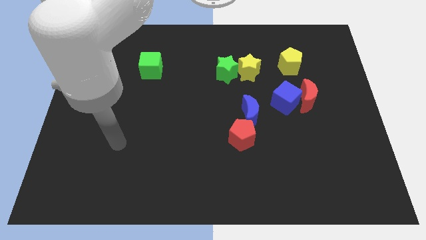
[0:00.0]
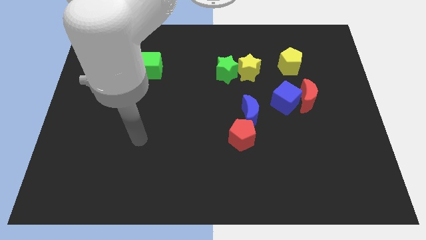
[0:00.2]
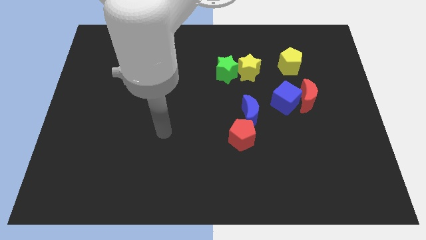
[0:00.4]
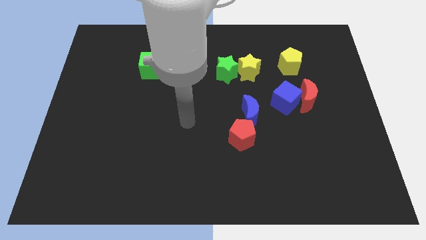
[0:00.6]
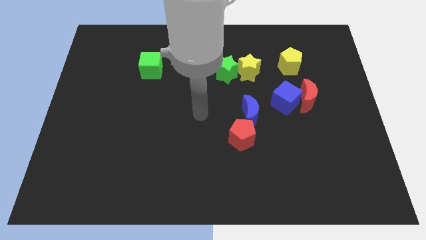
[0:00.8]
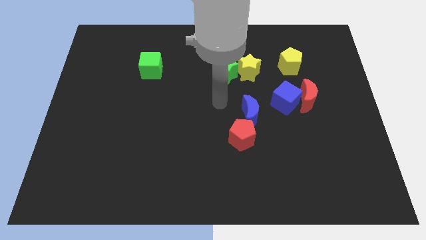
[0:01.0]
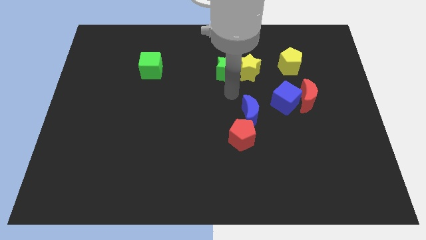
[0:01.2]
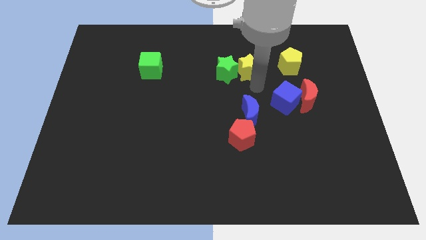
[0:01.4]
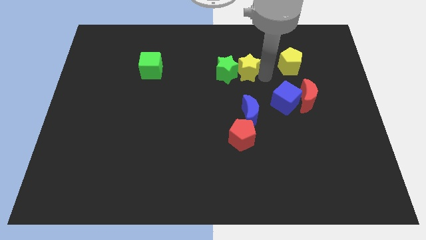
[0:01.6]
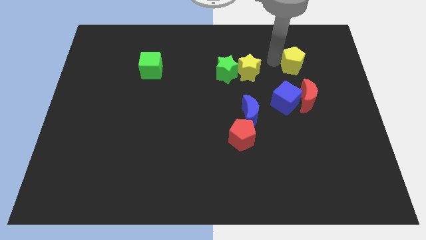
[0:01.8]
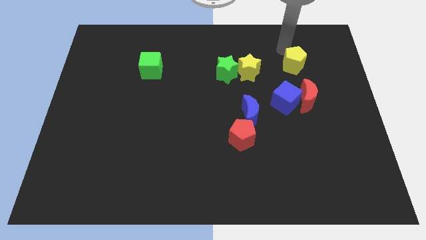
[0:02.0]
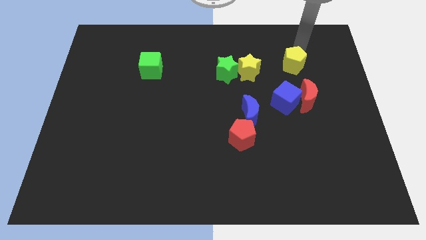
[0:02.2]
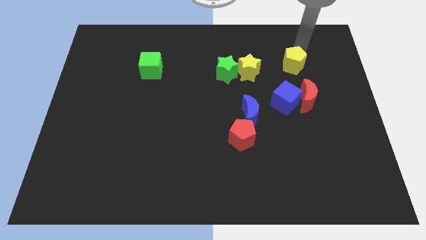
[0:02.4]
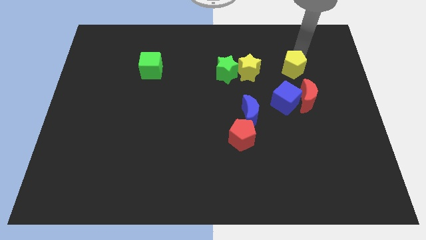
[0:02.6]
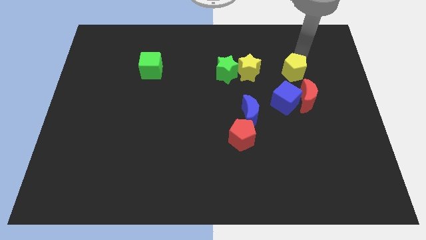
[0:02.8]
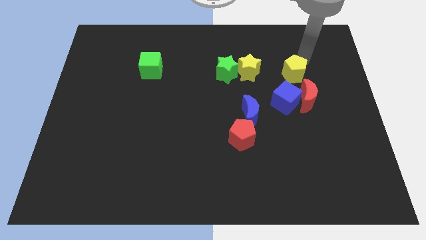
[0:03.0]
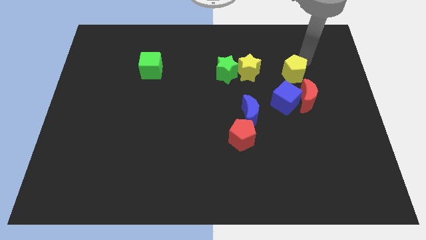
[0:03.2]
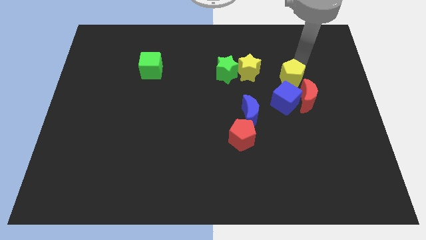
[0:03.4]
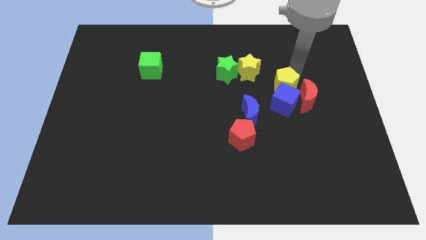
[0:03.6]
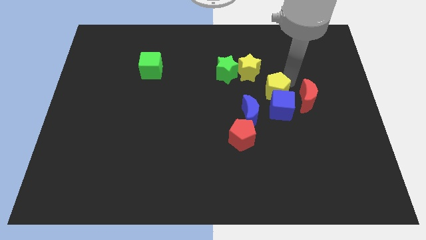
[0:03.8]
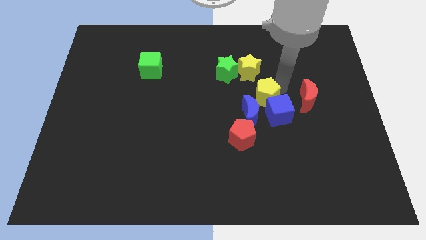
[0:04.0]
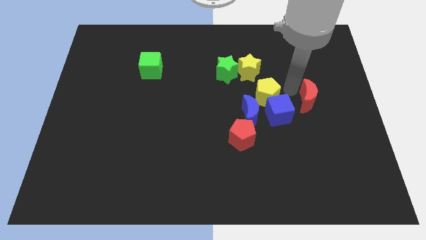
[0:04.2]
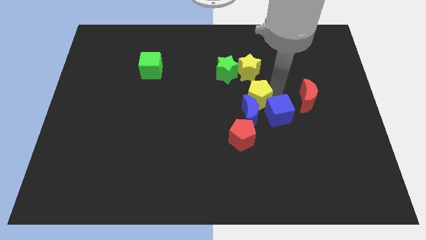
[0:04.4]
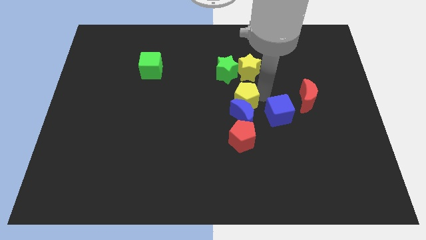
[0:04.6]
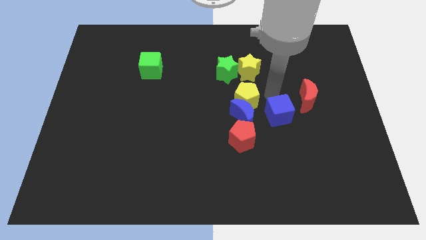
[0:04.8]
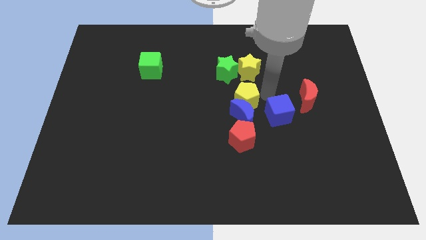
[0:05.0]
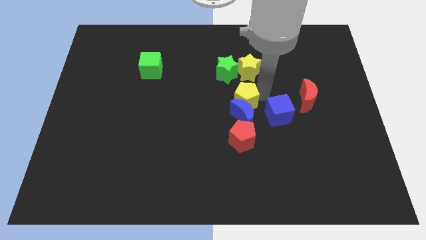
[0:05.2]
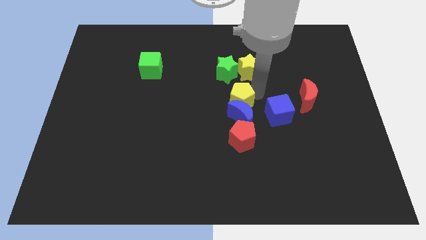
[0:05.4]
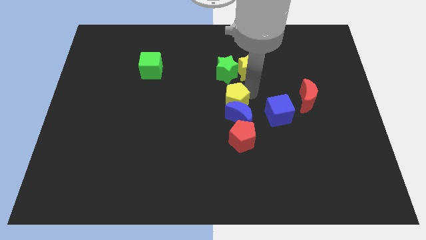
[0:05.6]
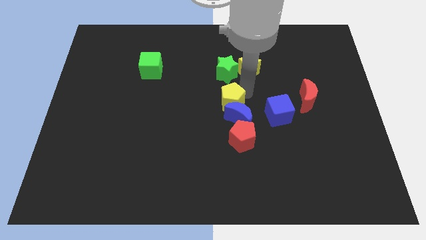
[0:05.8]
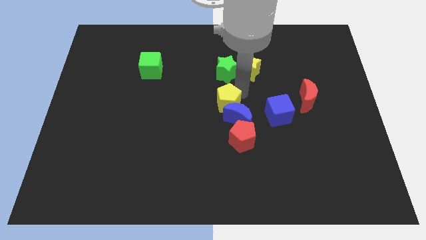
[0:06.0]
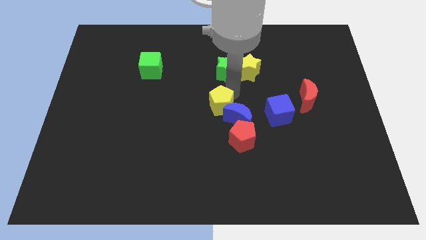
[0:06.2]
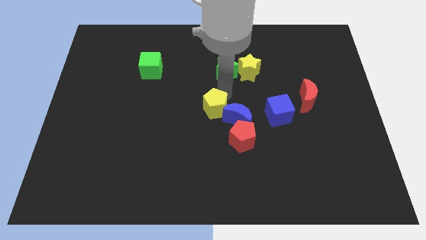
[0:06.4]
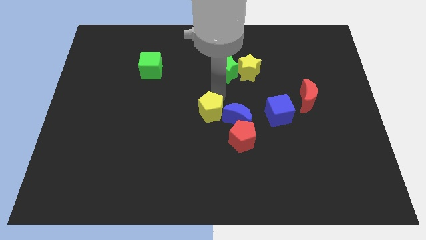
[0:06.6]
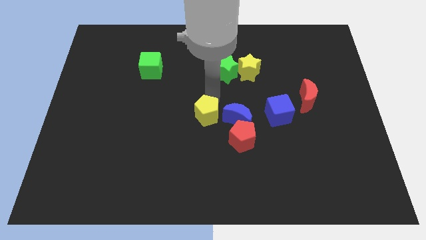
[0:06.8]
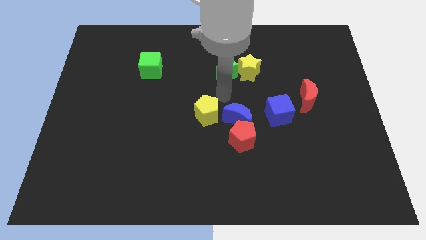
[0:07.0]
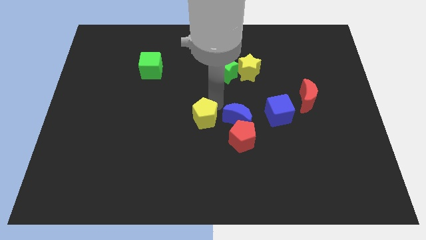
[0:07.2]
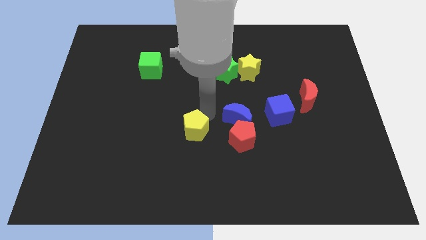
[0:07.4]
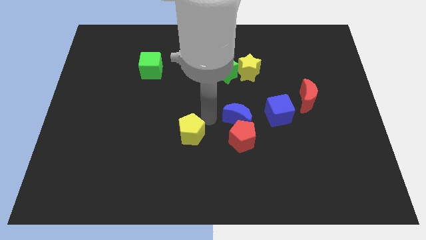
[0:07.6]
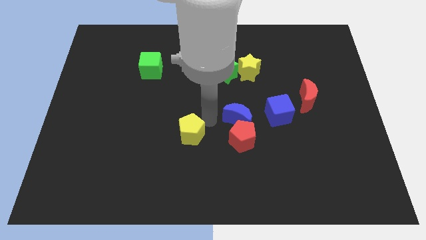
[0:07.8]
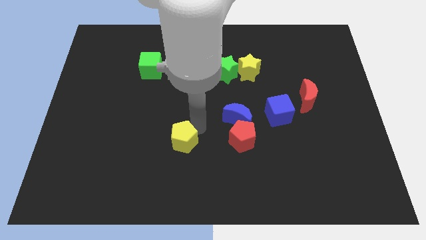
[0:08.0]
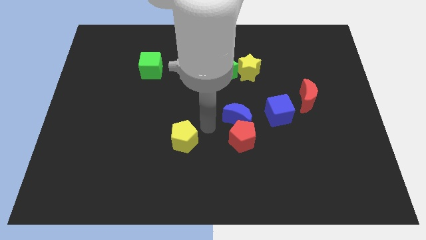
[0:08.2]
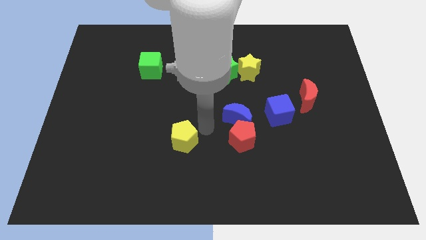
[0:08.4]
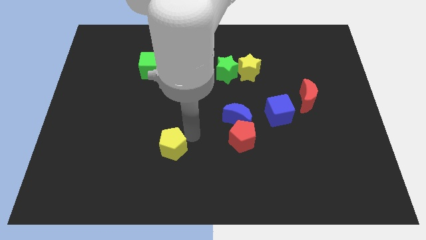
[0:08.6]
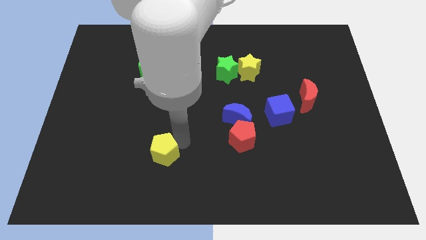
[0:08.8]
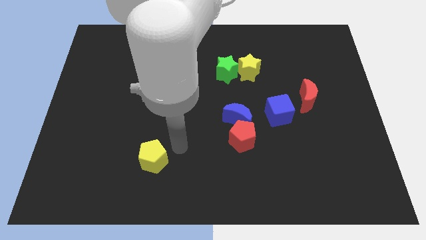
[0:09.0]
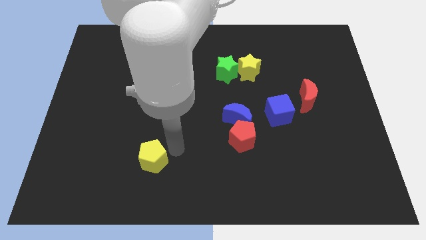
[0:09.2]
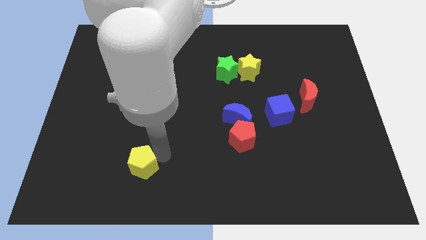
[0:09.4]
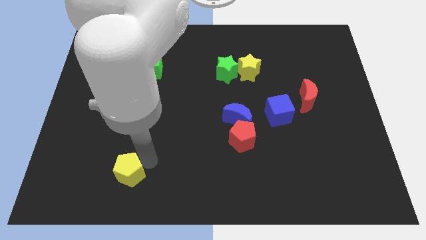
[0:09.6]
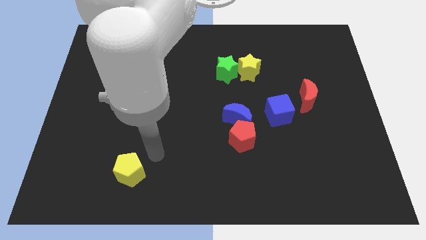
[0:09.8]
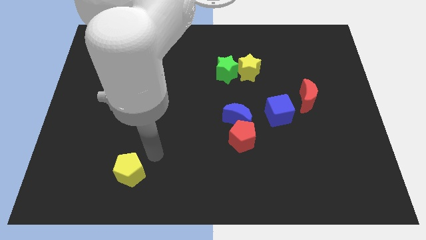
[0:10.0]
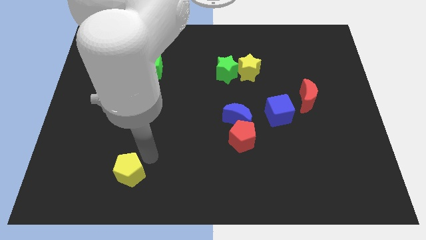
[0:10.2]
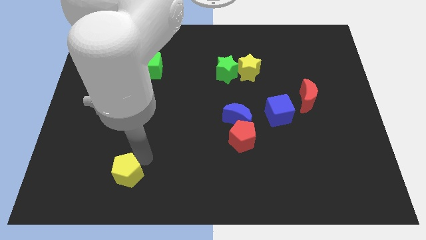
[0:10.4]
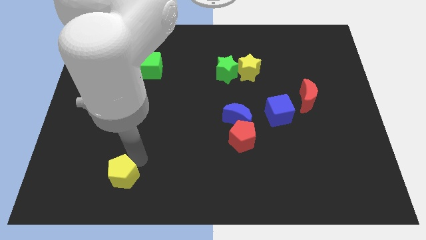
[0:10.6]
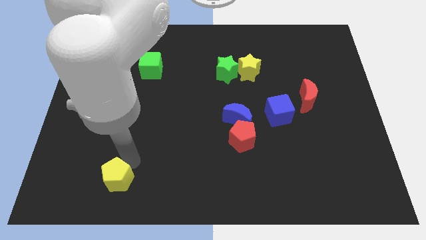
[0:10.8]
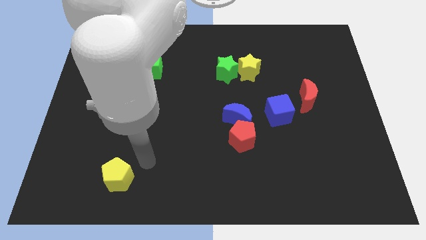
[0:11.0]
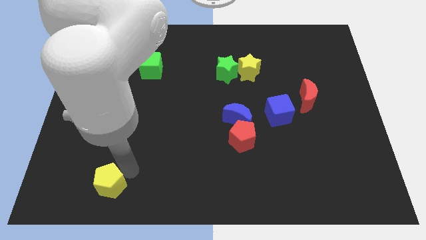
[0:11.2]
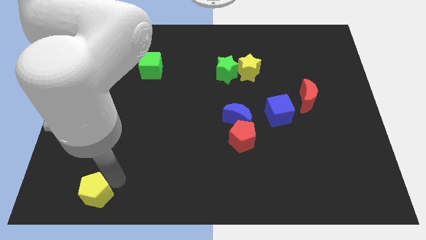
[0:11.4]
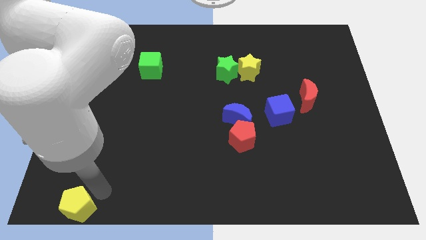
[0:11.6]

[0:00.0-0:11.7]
move the yellow pentagon to the lower left corner
